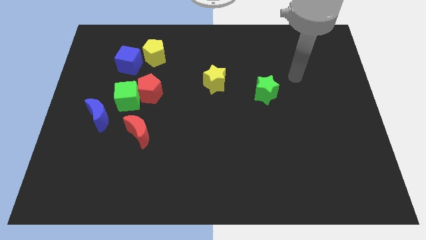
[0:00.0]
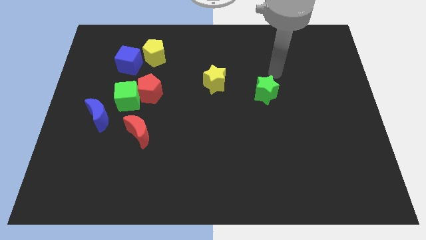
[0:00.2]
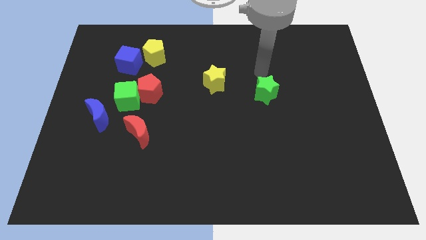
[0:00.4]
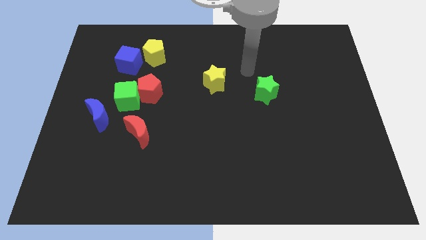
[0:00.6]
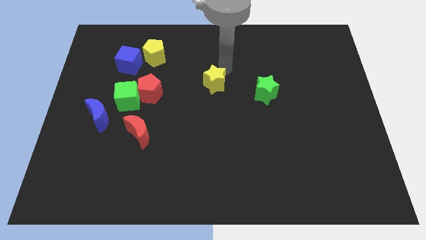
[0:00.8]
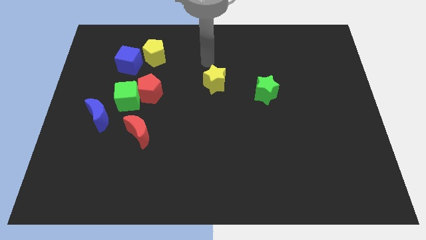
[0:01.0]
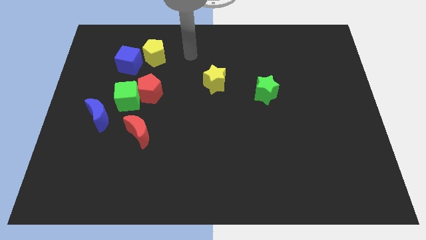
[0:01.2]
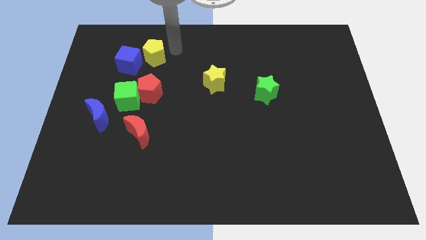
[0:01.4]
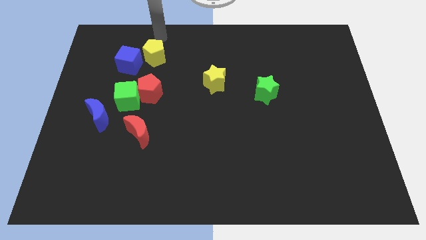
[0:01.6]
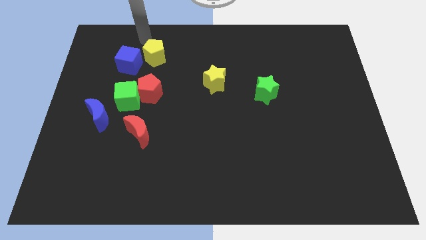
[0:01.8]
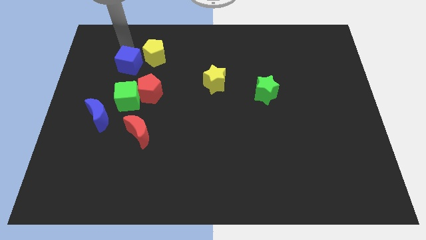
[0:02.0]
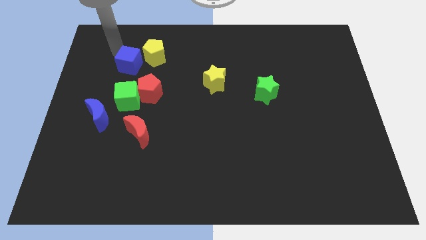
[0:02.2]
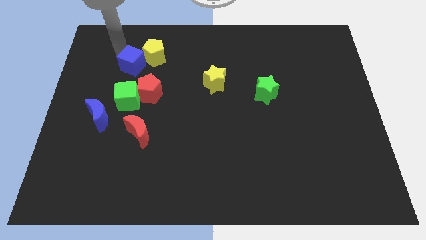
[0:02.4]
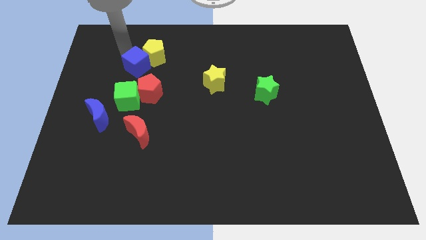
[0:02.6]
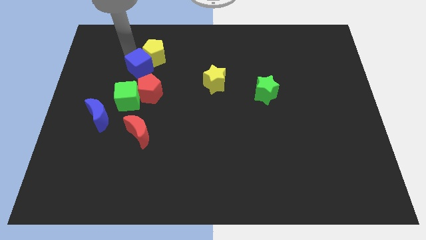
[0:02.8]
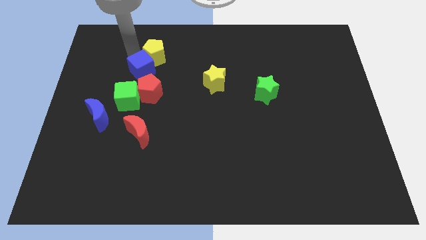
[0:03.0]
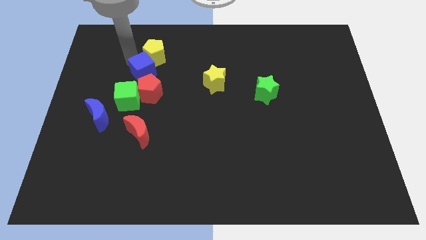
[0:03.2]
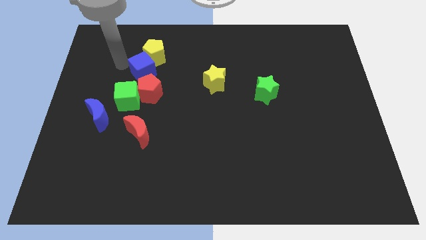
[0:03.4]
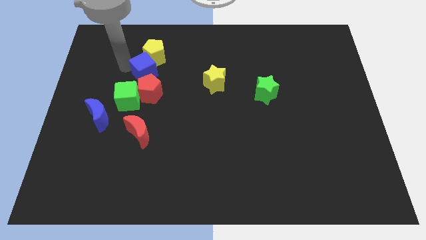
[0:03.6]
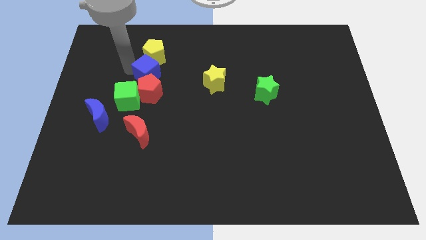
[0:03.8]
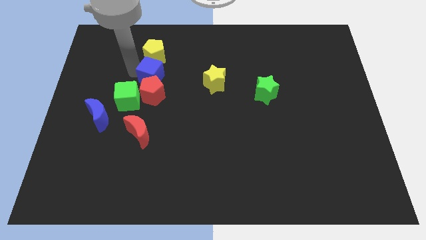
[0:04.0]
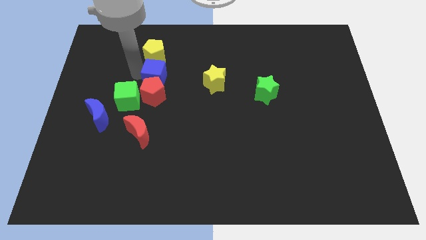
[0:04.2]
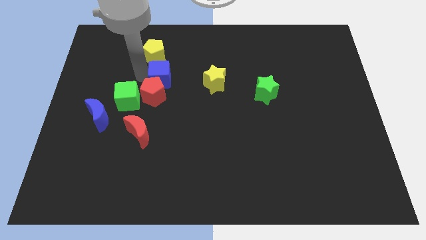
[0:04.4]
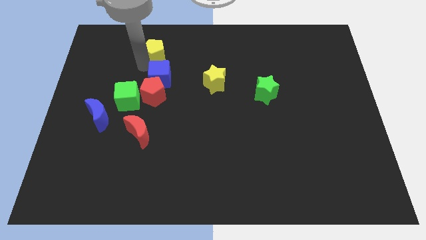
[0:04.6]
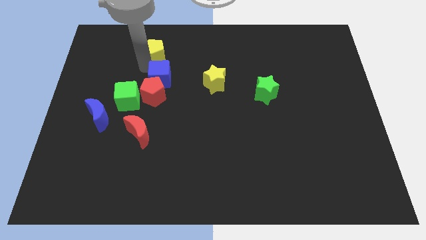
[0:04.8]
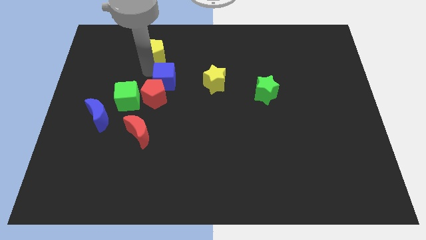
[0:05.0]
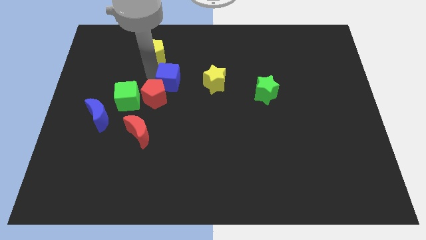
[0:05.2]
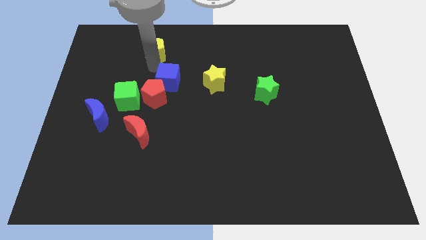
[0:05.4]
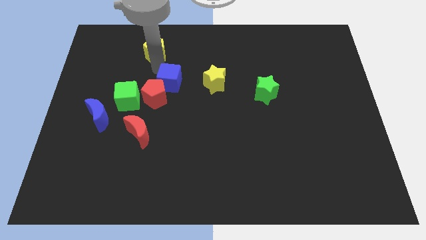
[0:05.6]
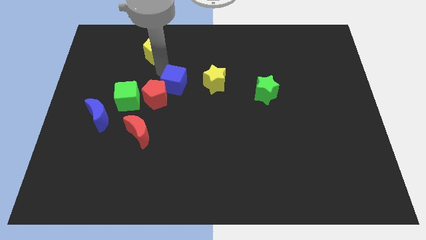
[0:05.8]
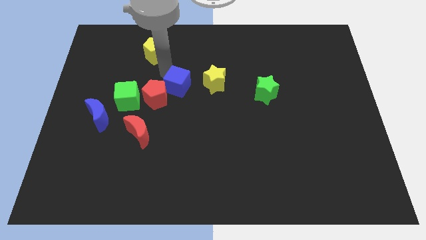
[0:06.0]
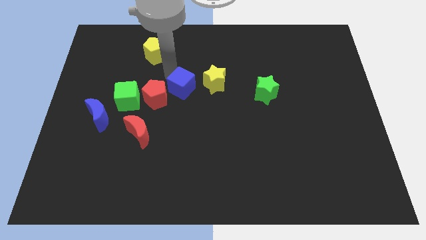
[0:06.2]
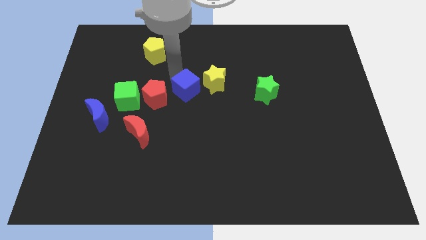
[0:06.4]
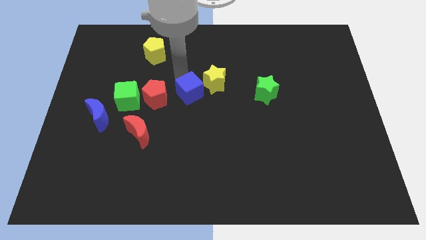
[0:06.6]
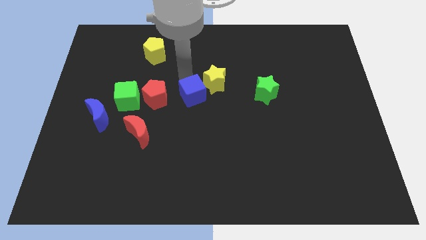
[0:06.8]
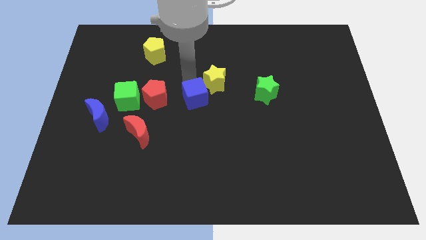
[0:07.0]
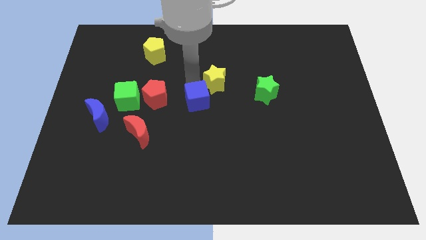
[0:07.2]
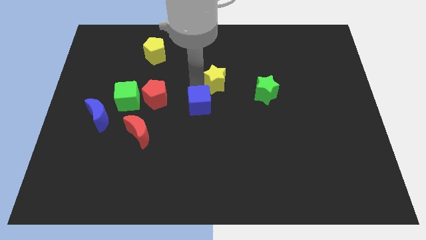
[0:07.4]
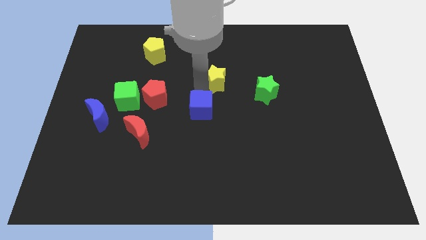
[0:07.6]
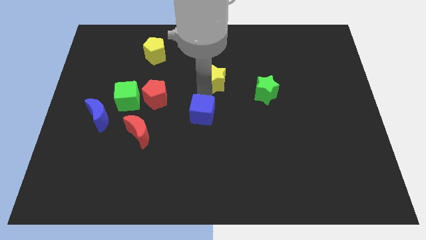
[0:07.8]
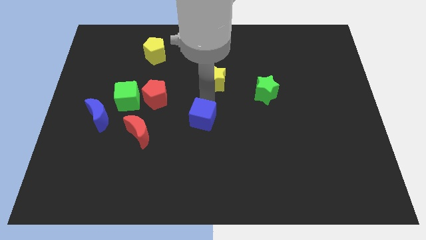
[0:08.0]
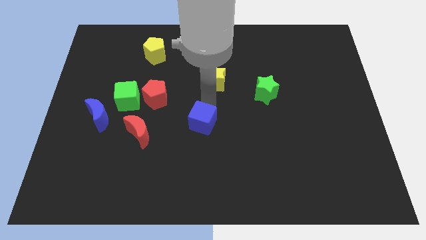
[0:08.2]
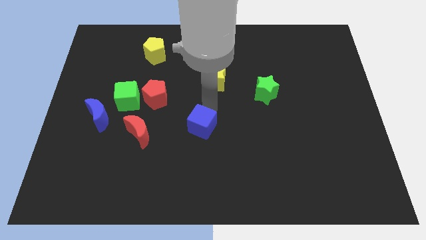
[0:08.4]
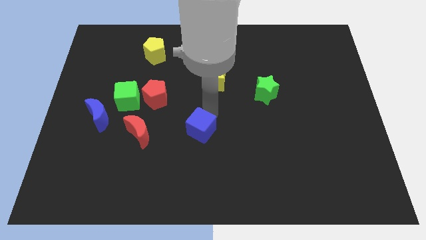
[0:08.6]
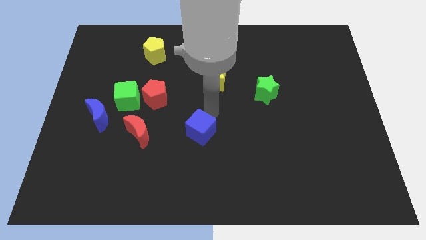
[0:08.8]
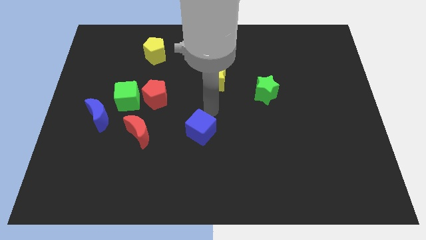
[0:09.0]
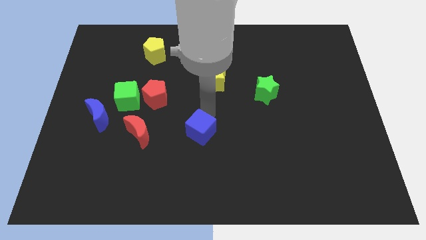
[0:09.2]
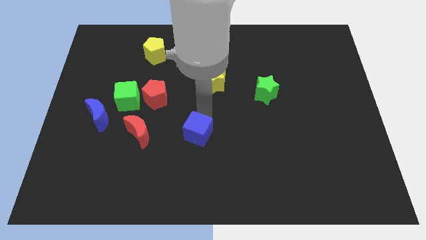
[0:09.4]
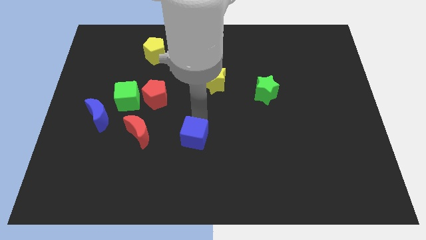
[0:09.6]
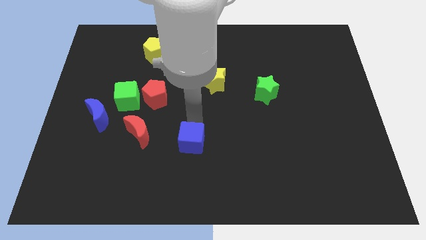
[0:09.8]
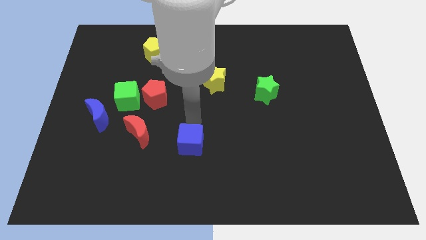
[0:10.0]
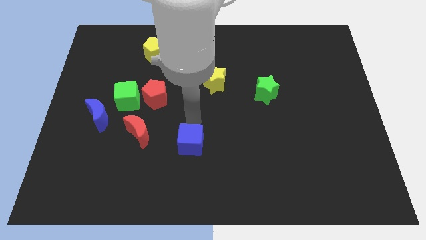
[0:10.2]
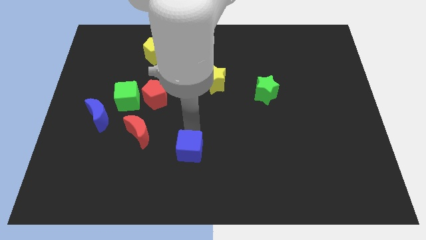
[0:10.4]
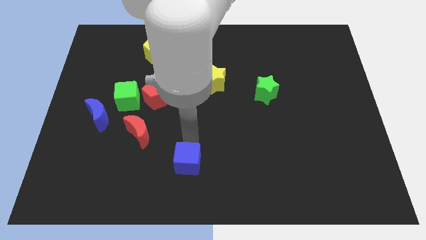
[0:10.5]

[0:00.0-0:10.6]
slide the blue cube to the bottom

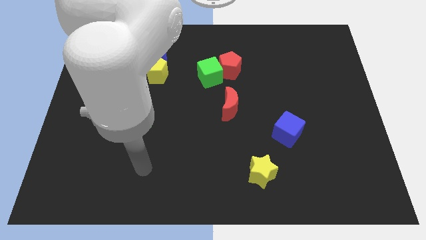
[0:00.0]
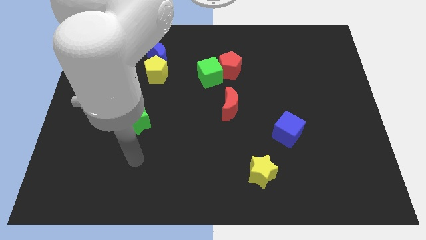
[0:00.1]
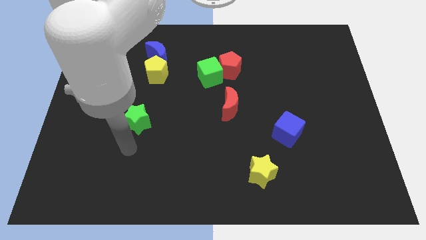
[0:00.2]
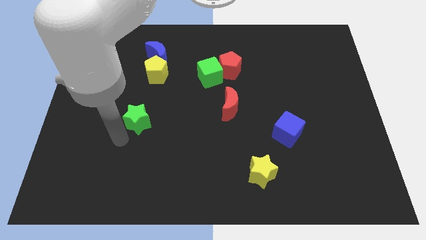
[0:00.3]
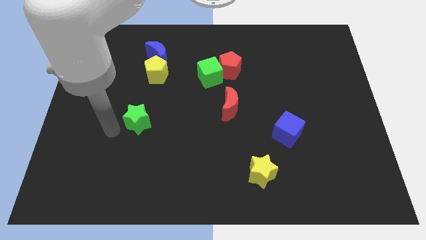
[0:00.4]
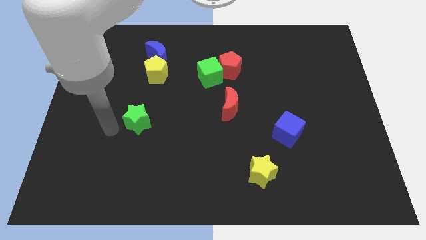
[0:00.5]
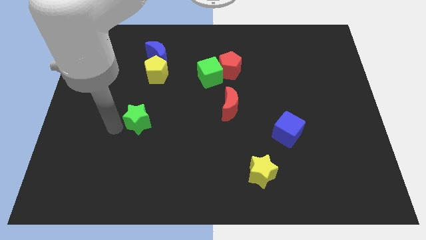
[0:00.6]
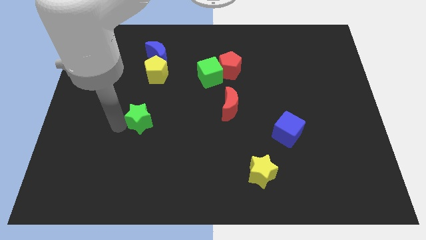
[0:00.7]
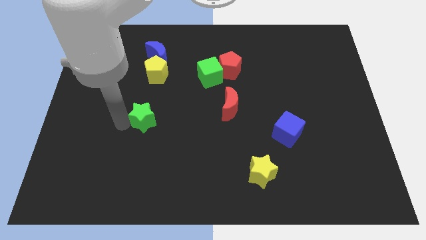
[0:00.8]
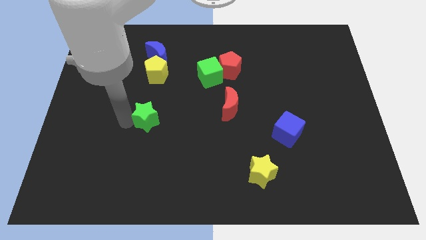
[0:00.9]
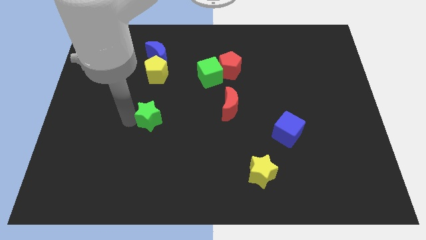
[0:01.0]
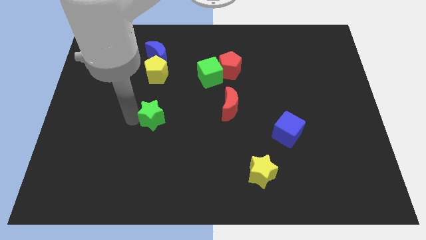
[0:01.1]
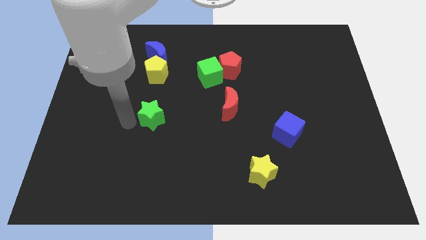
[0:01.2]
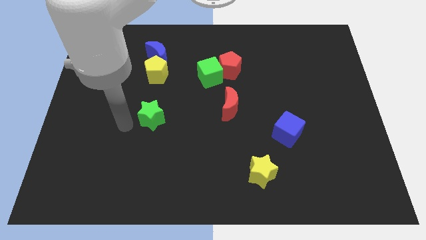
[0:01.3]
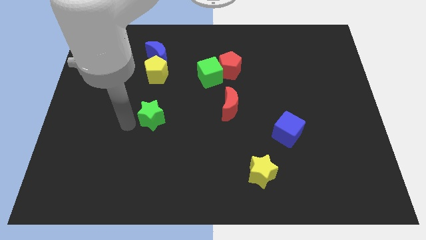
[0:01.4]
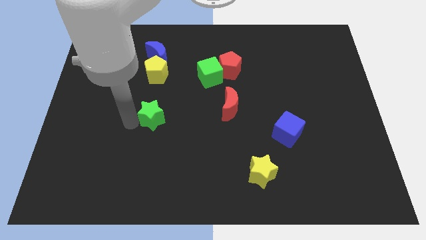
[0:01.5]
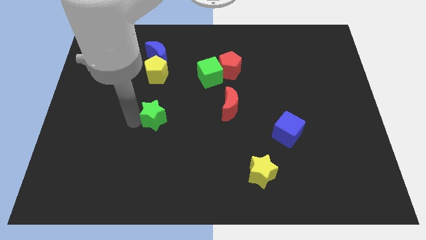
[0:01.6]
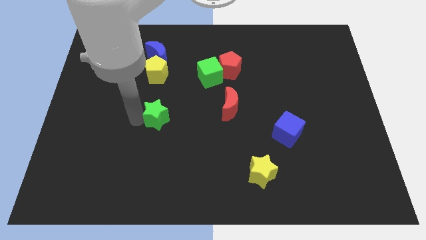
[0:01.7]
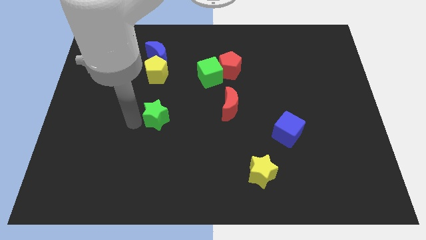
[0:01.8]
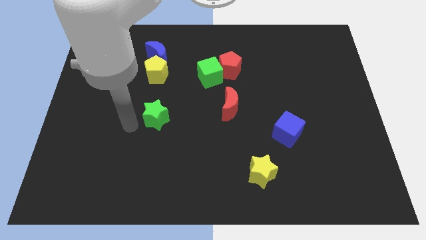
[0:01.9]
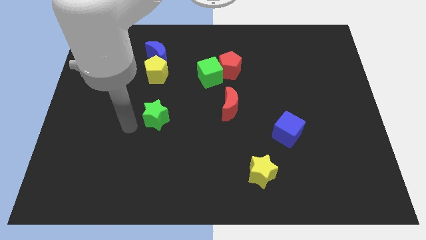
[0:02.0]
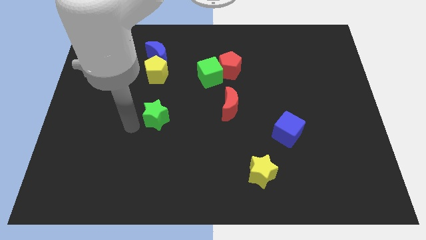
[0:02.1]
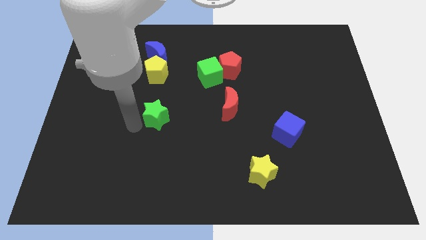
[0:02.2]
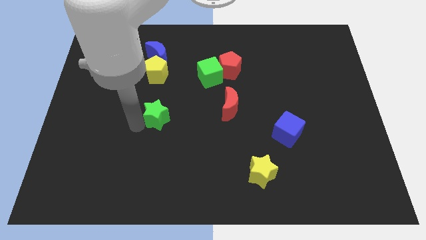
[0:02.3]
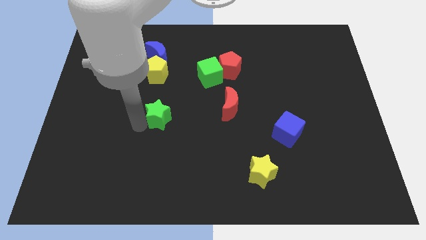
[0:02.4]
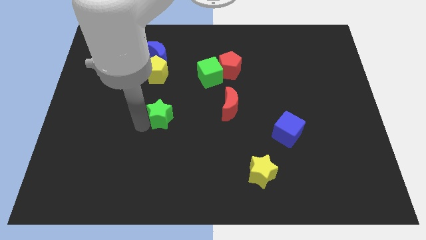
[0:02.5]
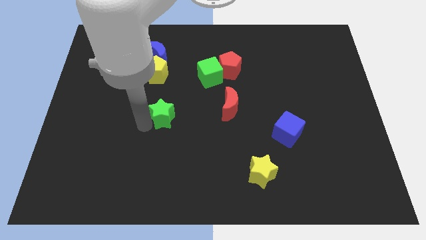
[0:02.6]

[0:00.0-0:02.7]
push the green star to the middle
